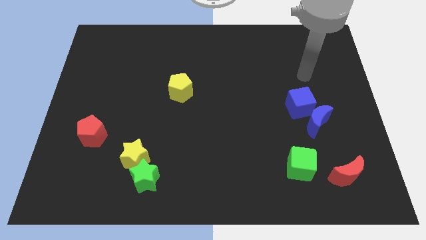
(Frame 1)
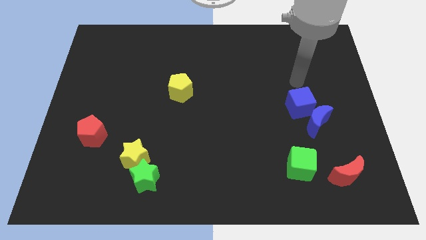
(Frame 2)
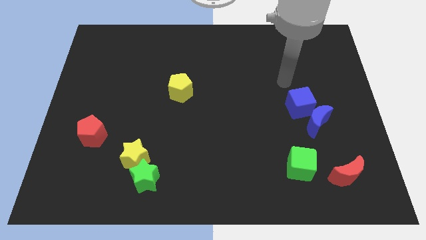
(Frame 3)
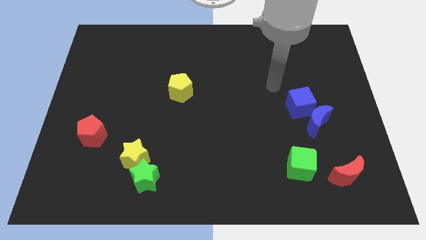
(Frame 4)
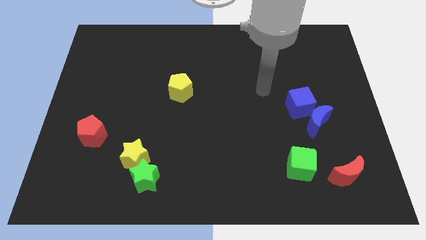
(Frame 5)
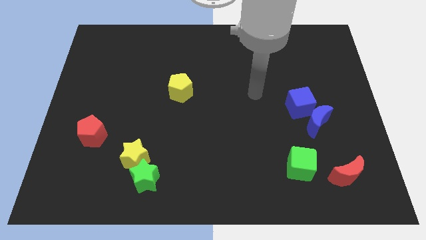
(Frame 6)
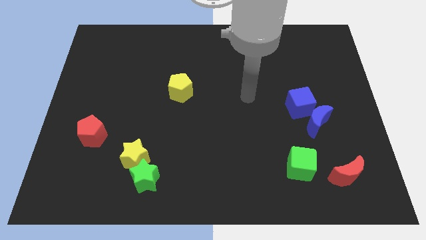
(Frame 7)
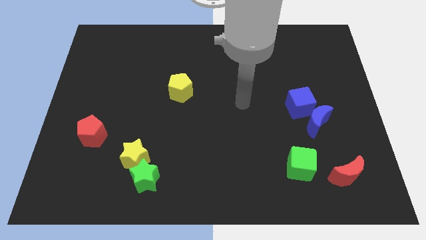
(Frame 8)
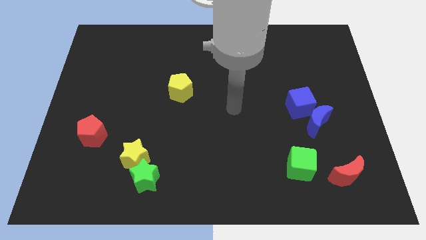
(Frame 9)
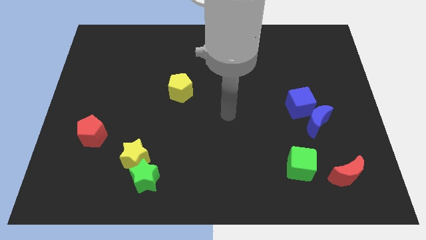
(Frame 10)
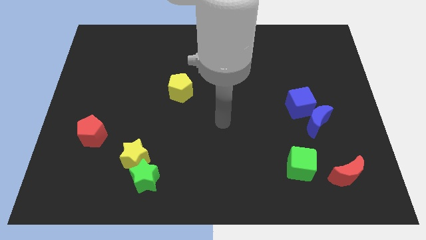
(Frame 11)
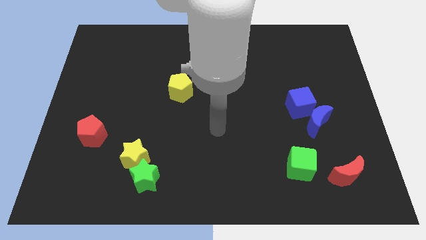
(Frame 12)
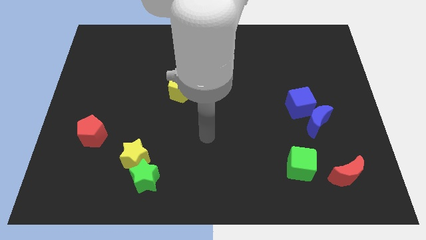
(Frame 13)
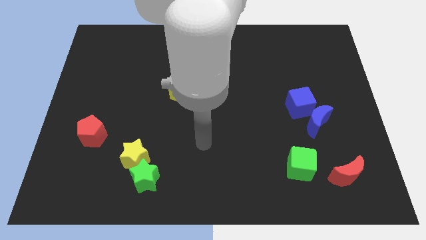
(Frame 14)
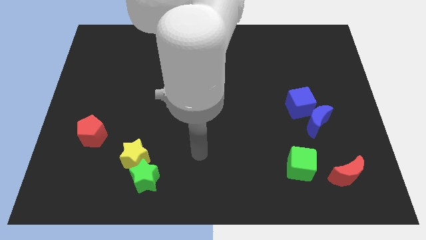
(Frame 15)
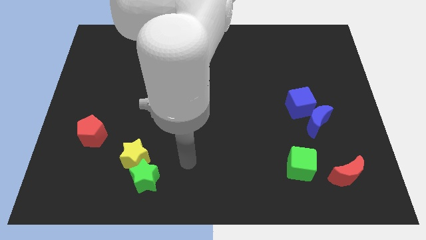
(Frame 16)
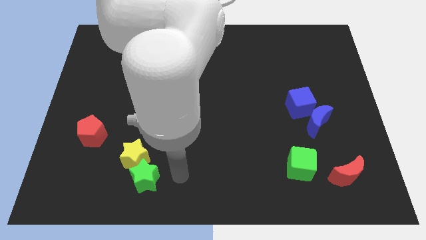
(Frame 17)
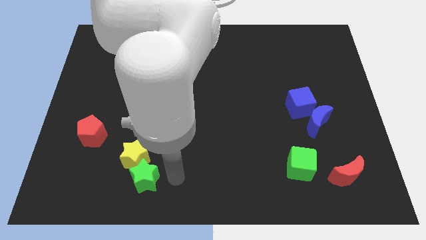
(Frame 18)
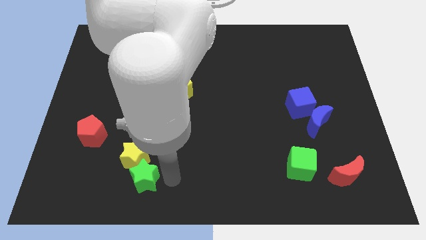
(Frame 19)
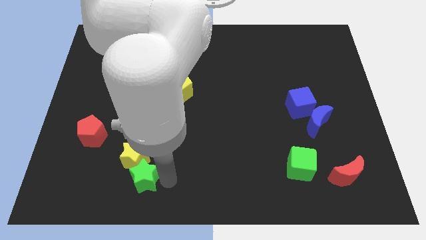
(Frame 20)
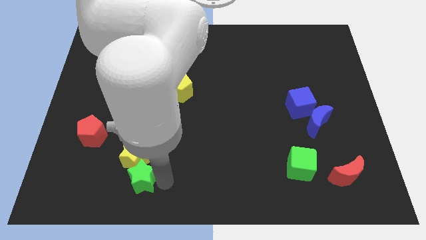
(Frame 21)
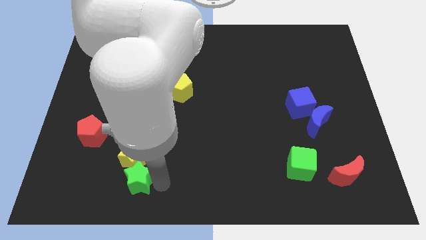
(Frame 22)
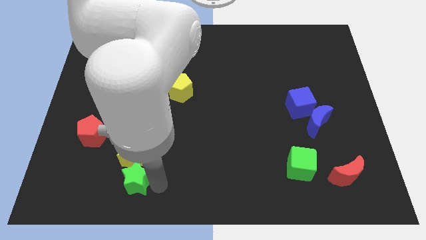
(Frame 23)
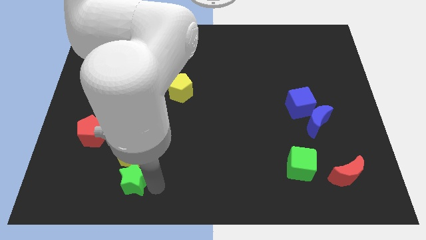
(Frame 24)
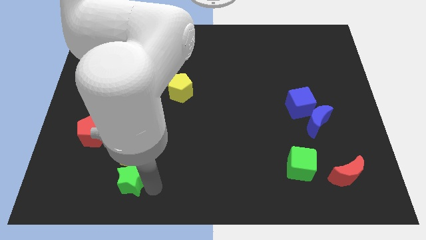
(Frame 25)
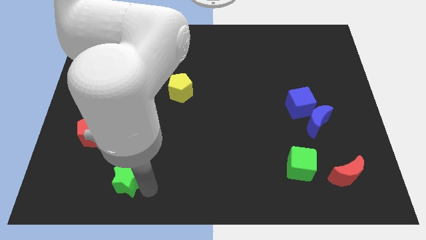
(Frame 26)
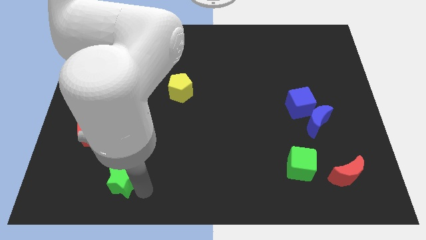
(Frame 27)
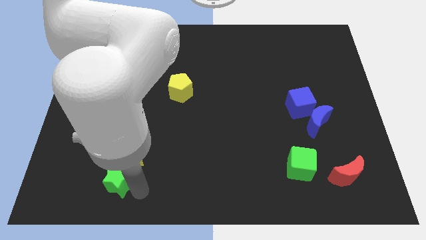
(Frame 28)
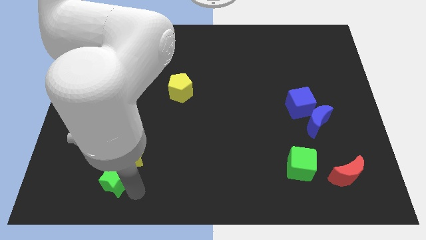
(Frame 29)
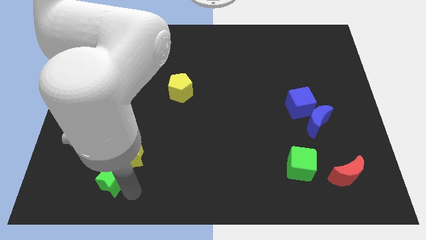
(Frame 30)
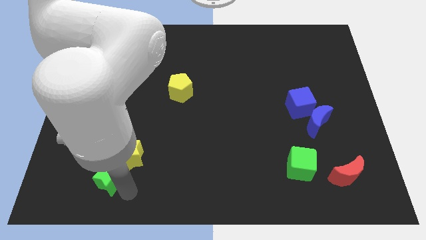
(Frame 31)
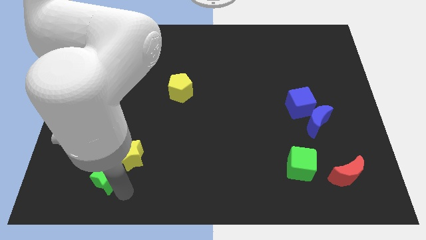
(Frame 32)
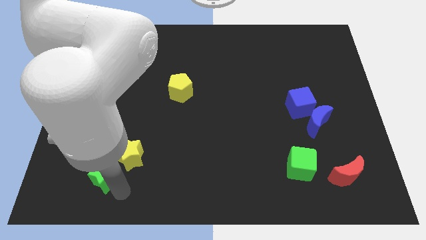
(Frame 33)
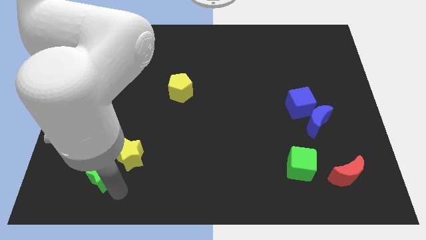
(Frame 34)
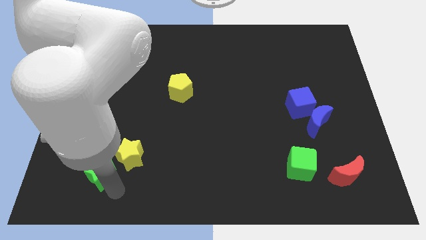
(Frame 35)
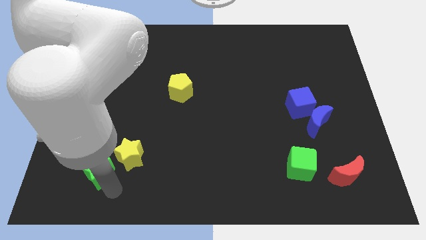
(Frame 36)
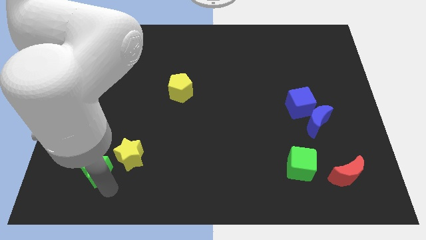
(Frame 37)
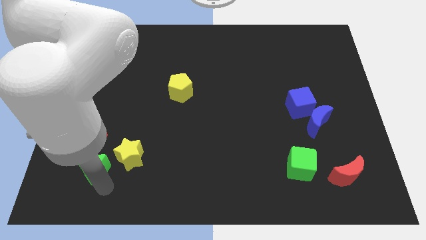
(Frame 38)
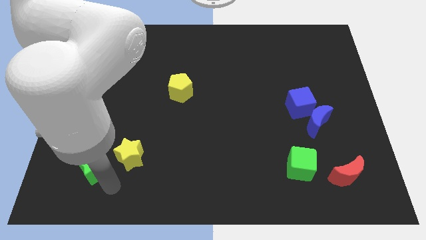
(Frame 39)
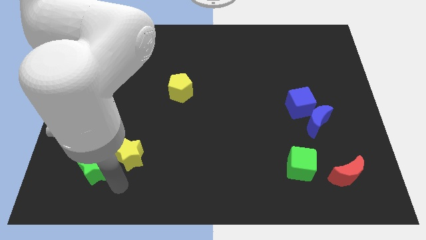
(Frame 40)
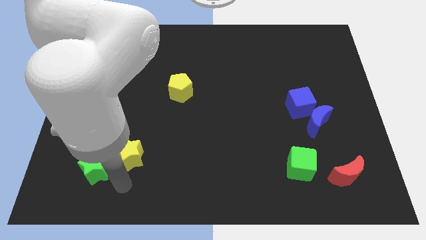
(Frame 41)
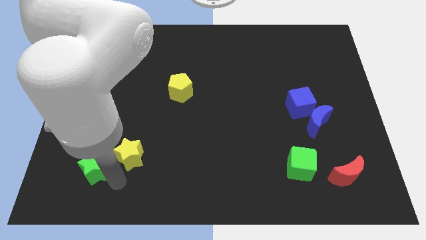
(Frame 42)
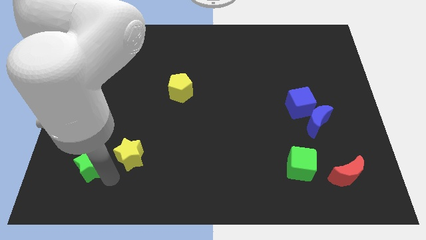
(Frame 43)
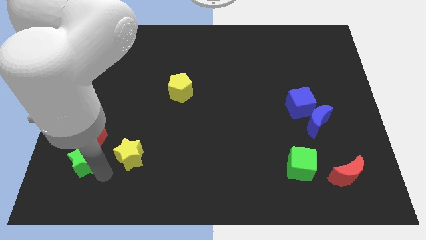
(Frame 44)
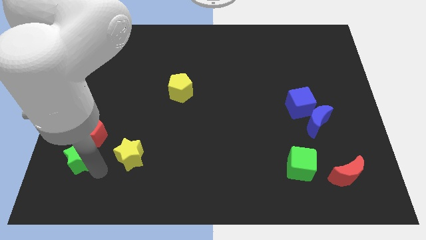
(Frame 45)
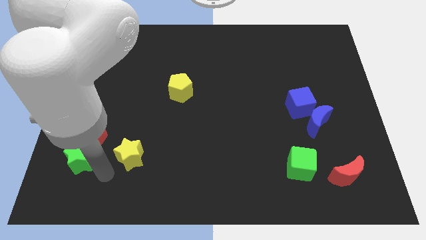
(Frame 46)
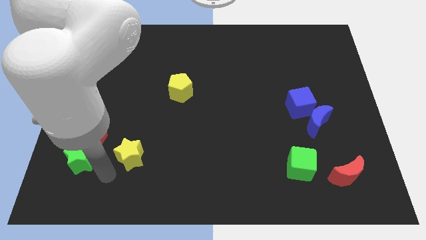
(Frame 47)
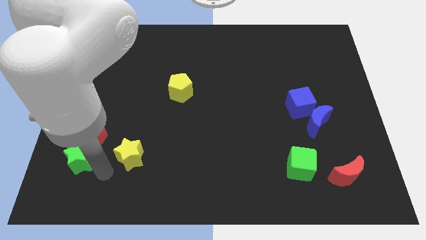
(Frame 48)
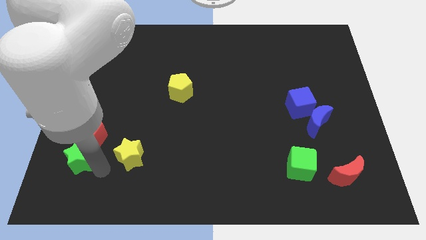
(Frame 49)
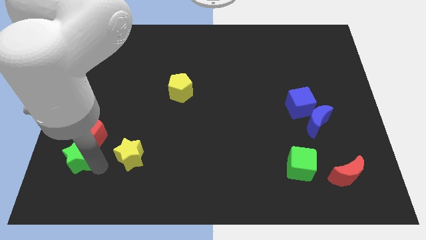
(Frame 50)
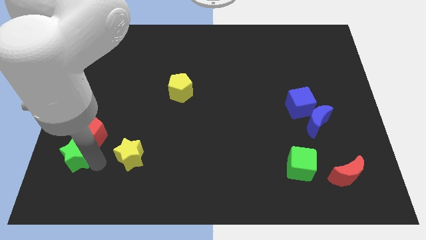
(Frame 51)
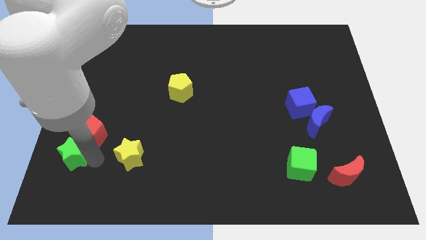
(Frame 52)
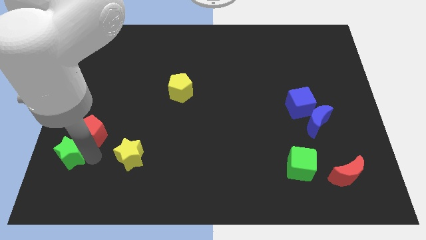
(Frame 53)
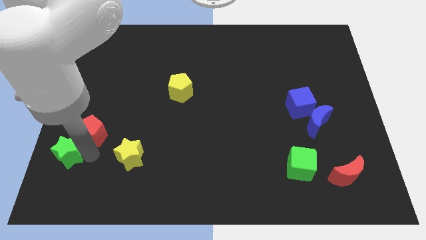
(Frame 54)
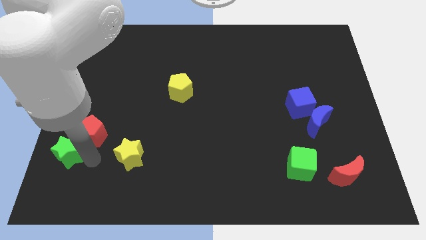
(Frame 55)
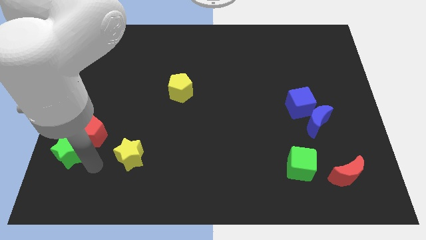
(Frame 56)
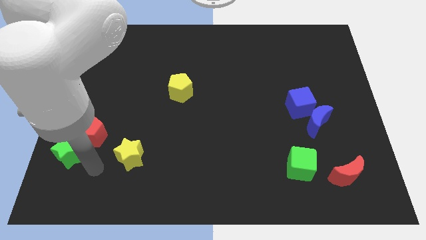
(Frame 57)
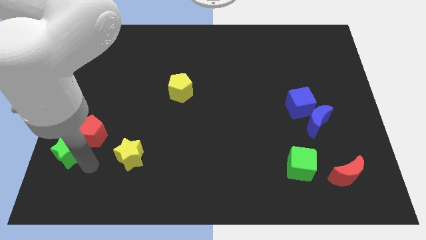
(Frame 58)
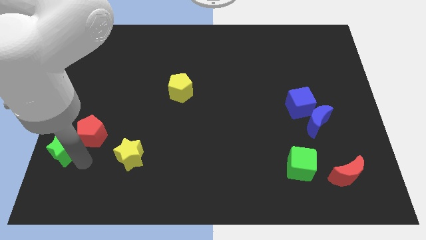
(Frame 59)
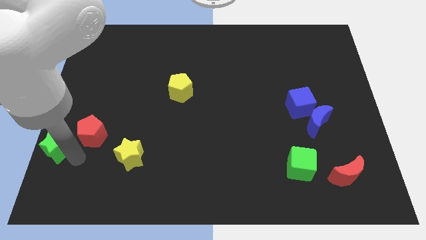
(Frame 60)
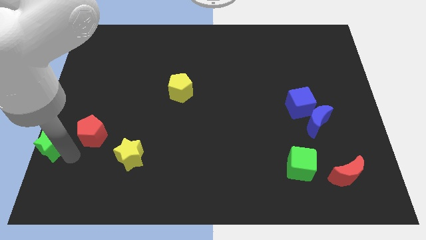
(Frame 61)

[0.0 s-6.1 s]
push the green star to the center left

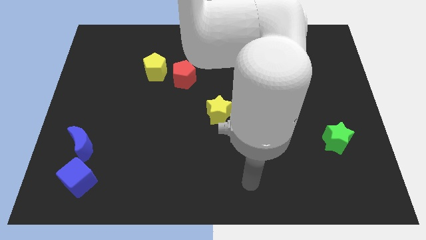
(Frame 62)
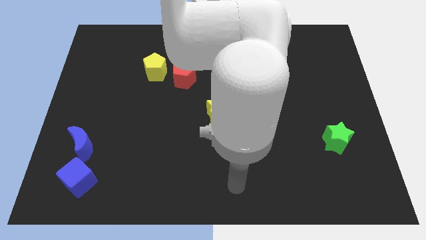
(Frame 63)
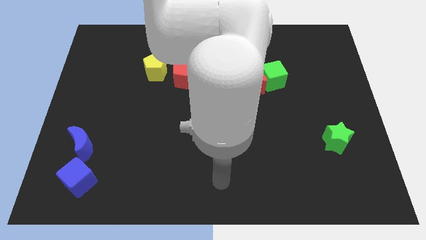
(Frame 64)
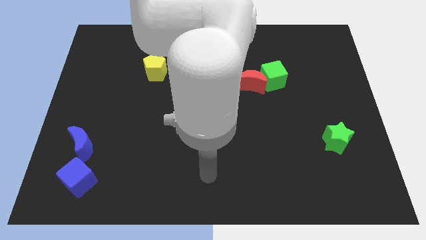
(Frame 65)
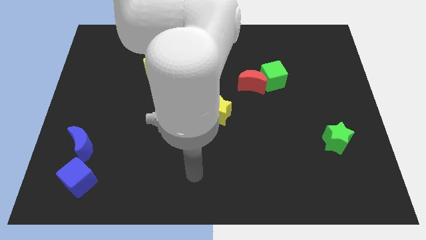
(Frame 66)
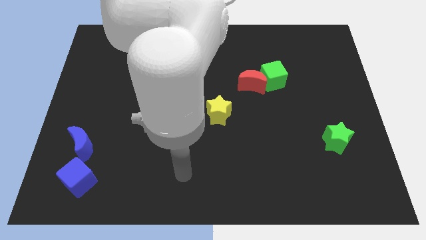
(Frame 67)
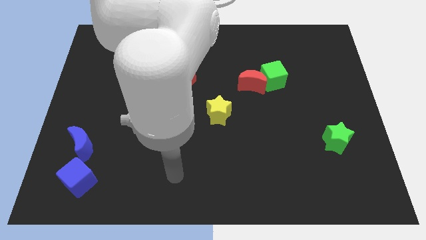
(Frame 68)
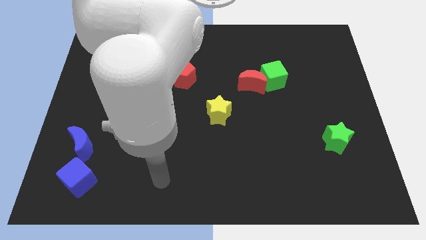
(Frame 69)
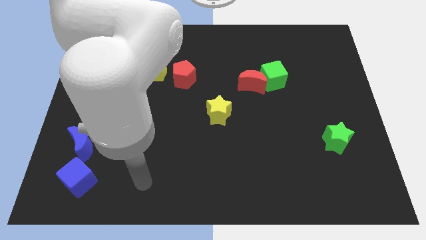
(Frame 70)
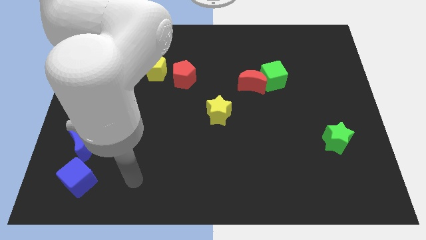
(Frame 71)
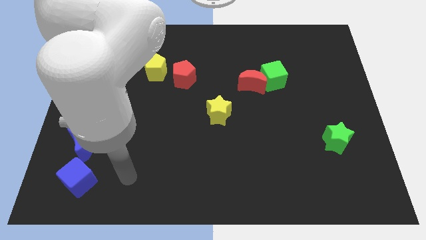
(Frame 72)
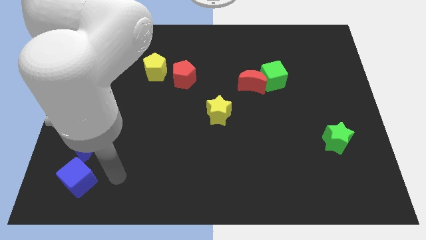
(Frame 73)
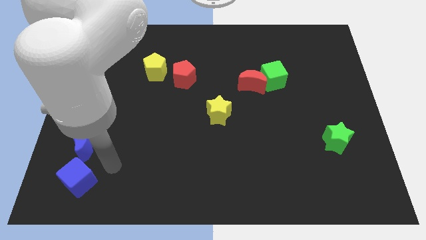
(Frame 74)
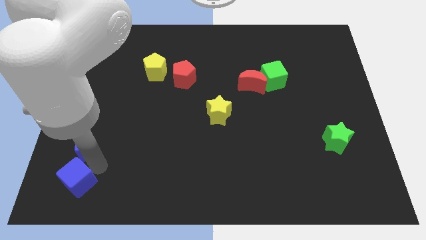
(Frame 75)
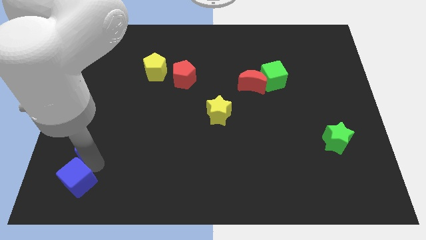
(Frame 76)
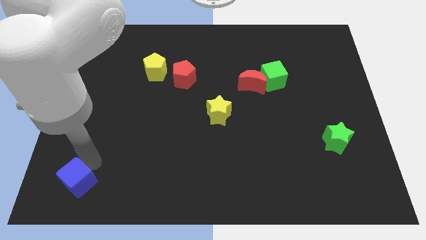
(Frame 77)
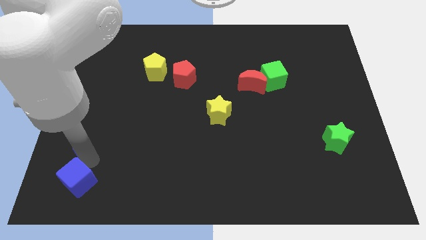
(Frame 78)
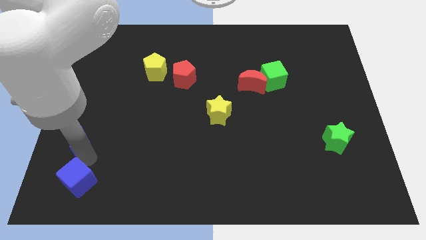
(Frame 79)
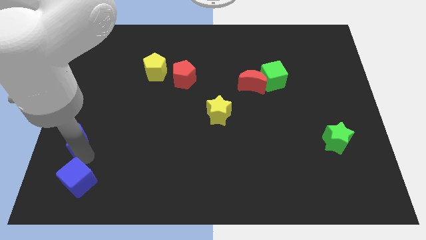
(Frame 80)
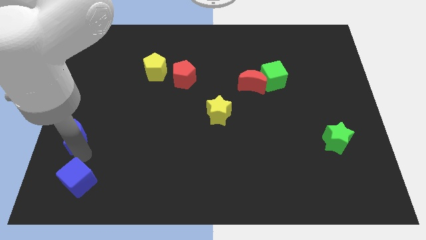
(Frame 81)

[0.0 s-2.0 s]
put the blue moon to the left side
